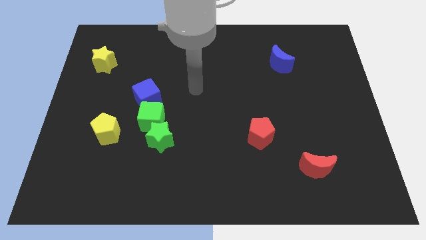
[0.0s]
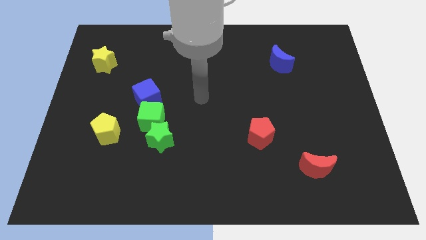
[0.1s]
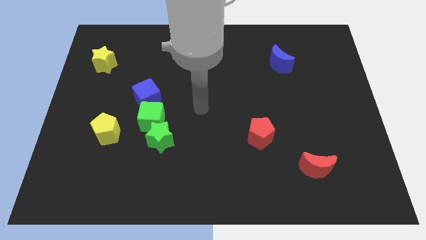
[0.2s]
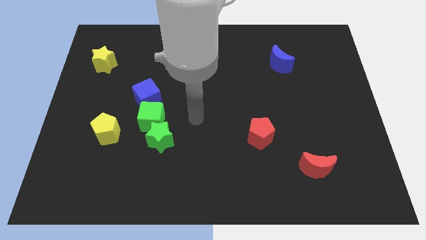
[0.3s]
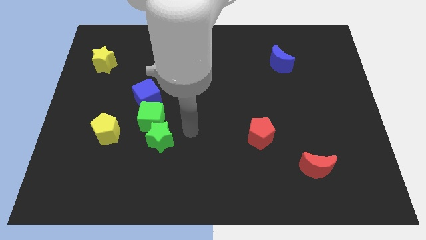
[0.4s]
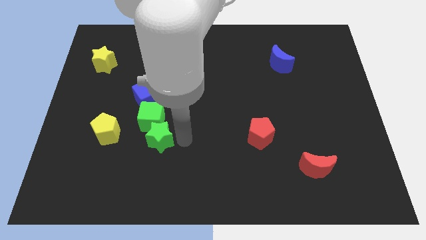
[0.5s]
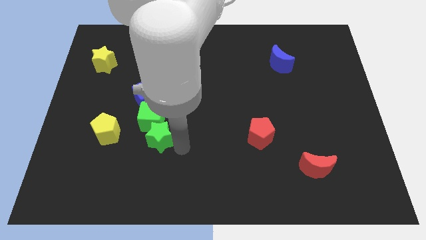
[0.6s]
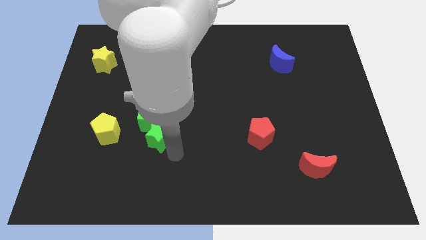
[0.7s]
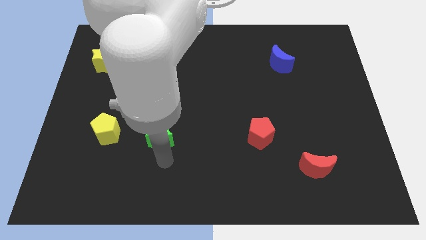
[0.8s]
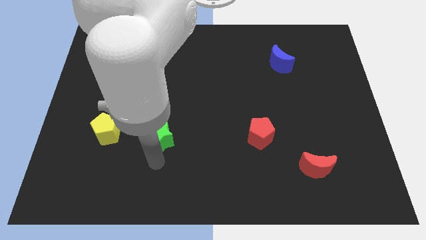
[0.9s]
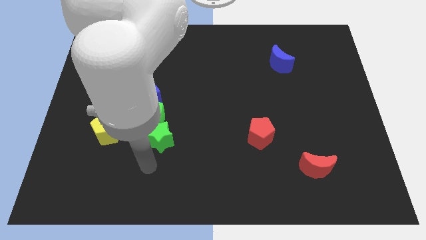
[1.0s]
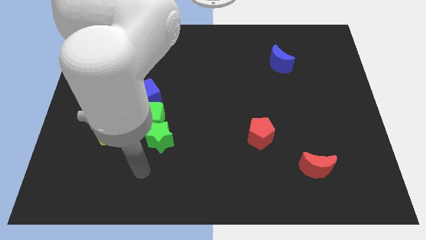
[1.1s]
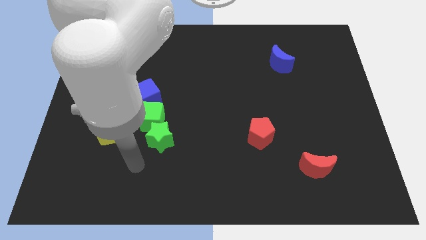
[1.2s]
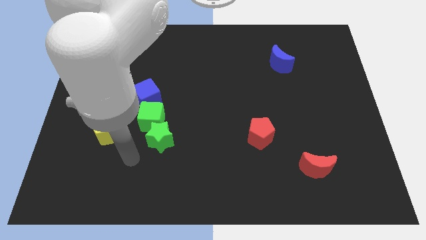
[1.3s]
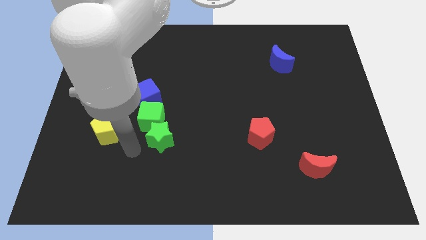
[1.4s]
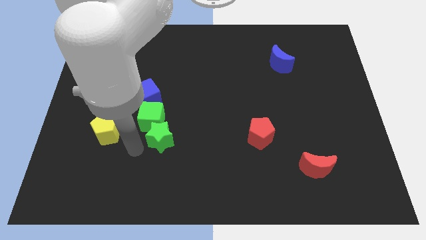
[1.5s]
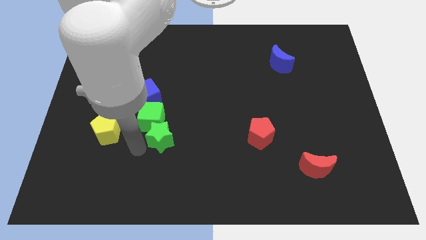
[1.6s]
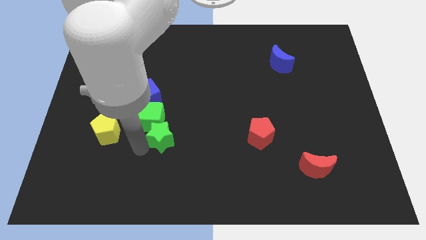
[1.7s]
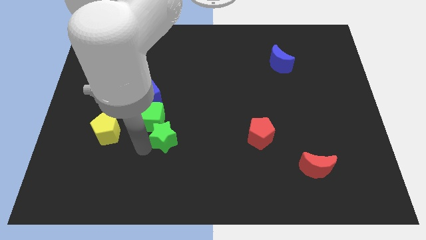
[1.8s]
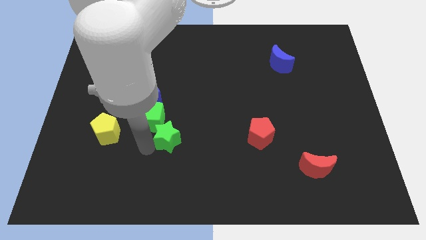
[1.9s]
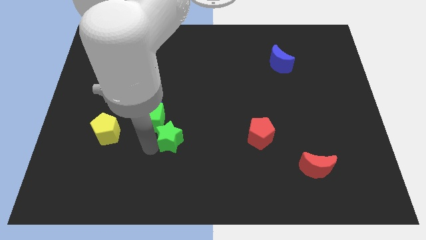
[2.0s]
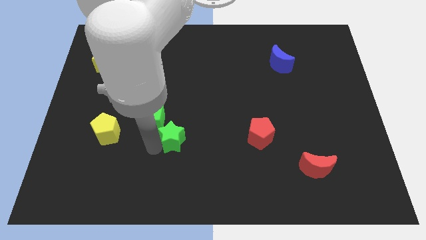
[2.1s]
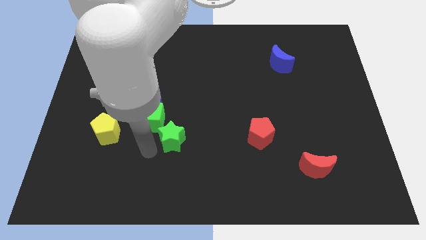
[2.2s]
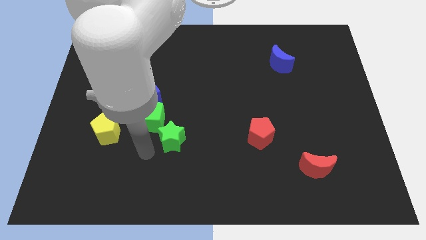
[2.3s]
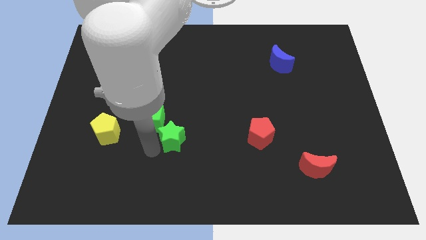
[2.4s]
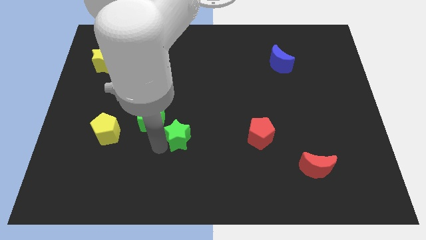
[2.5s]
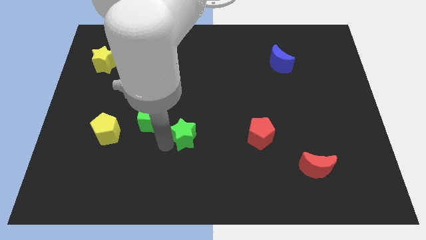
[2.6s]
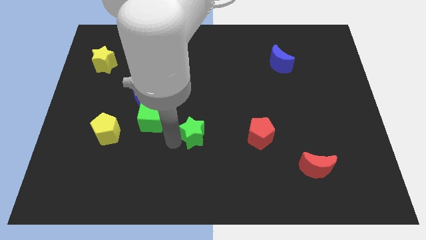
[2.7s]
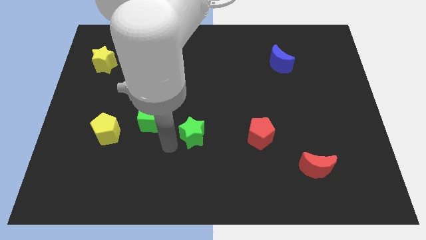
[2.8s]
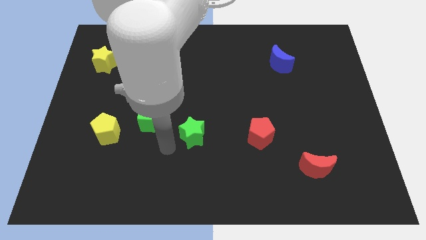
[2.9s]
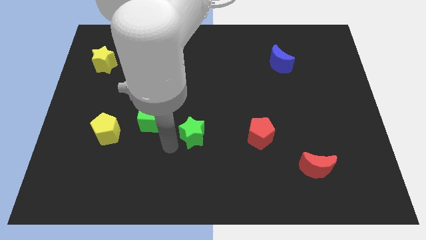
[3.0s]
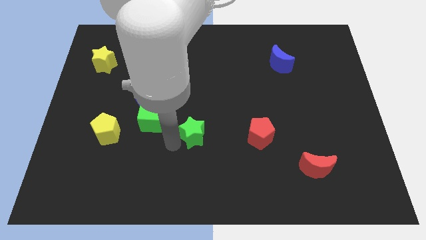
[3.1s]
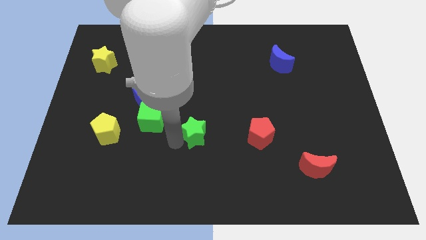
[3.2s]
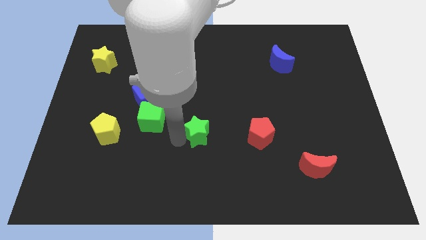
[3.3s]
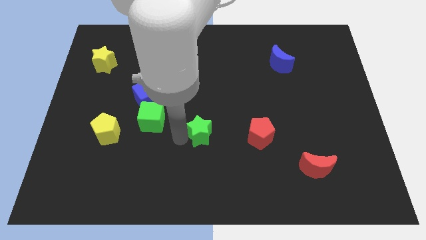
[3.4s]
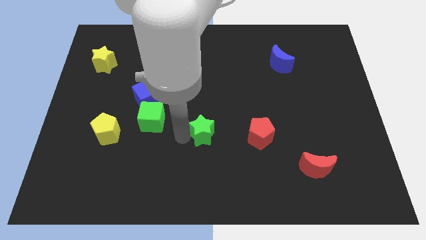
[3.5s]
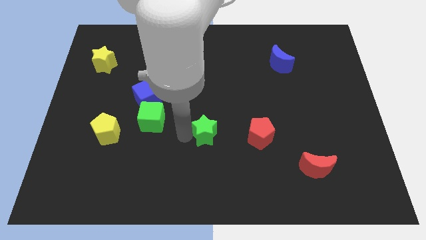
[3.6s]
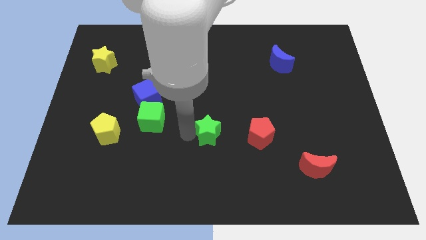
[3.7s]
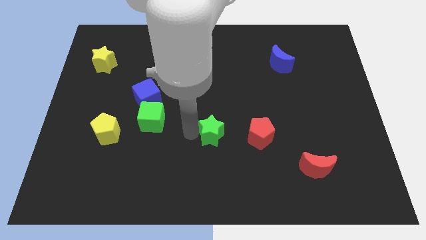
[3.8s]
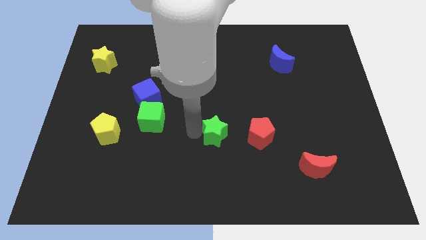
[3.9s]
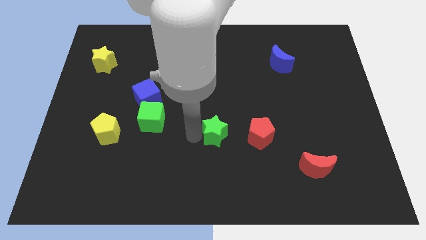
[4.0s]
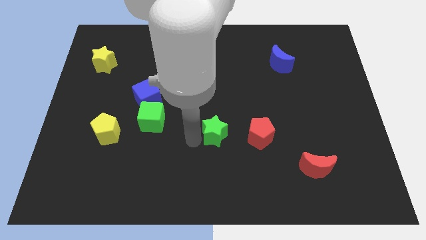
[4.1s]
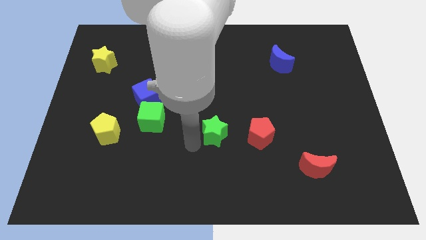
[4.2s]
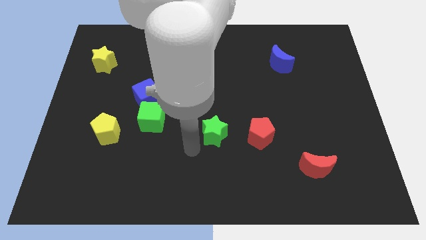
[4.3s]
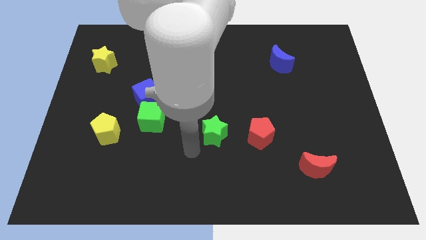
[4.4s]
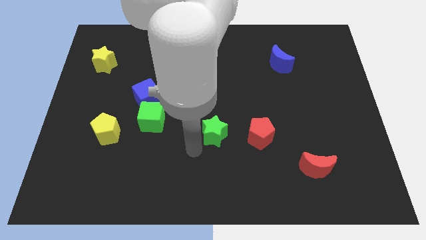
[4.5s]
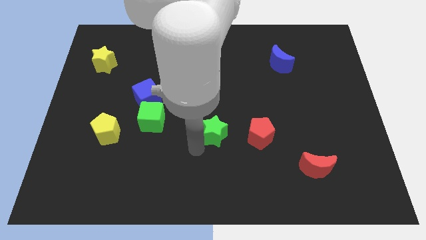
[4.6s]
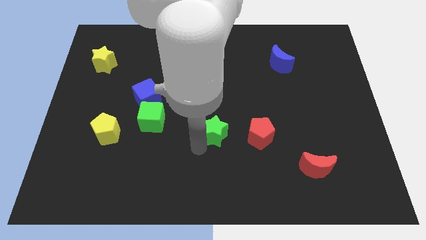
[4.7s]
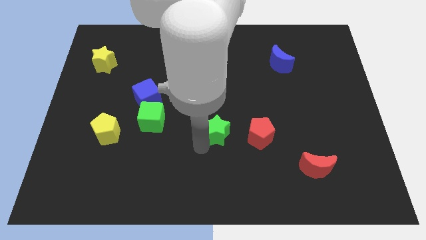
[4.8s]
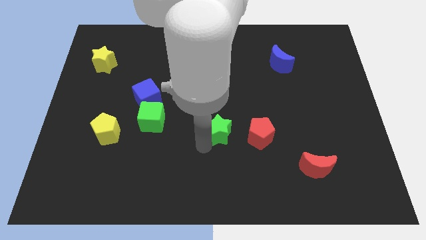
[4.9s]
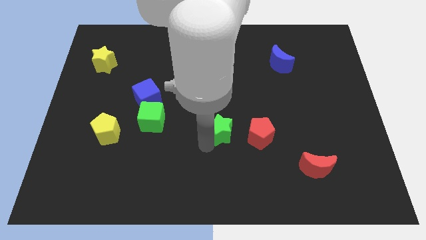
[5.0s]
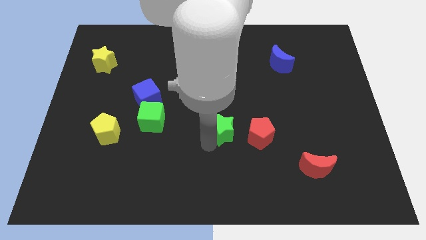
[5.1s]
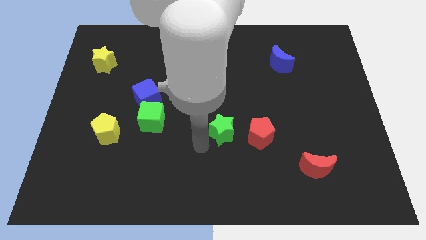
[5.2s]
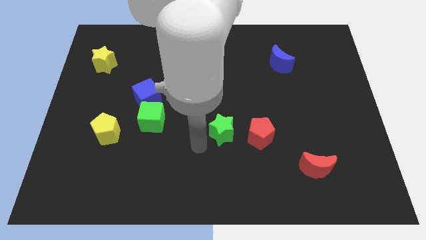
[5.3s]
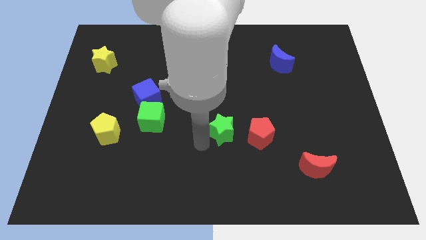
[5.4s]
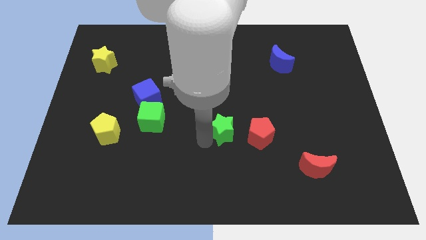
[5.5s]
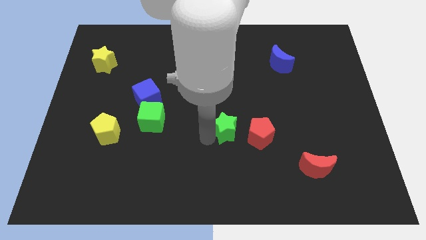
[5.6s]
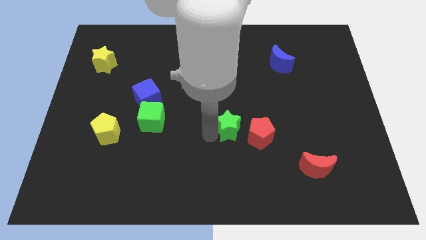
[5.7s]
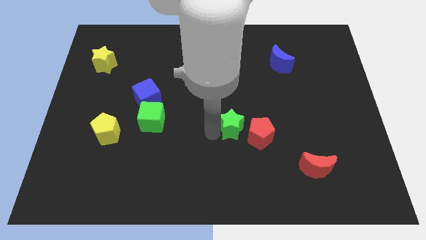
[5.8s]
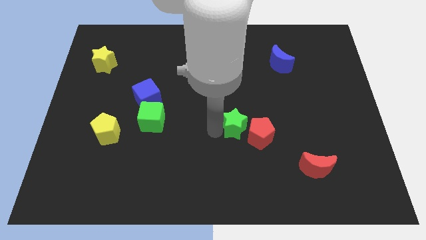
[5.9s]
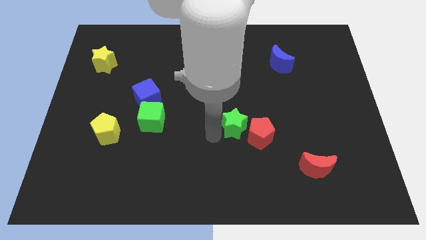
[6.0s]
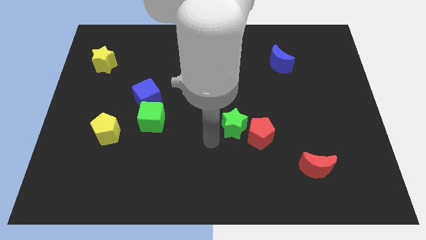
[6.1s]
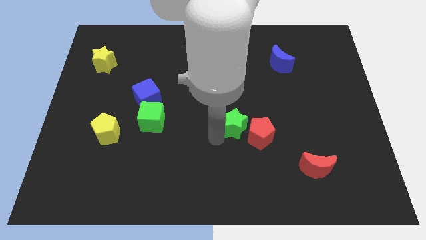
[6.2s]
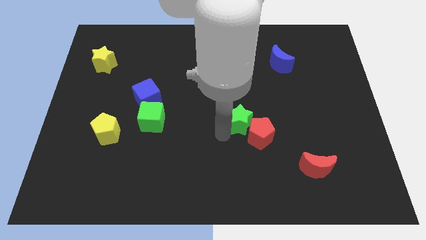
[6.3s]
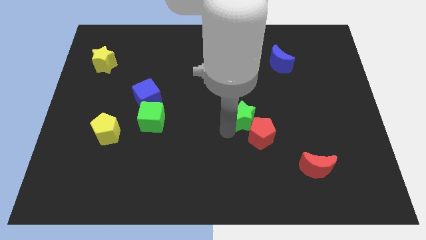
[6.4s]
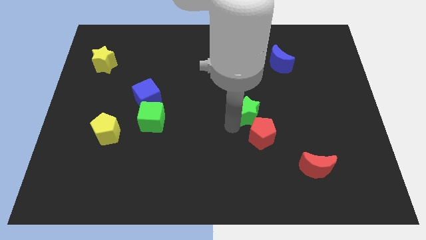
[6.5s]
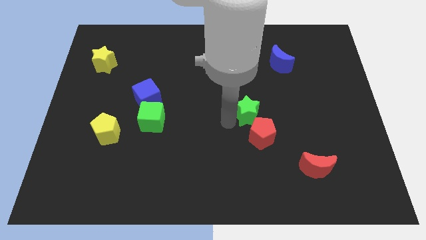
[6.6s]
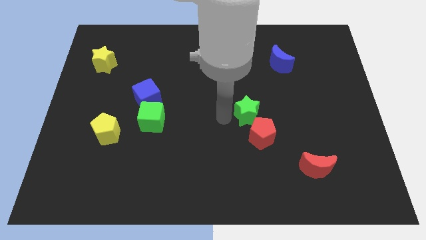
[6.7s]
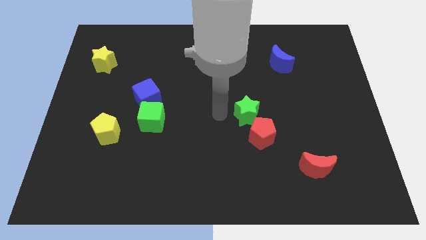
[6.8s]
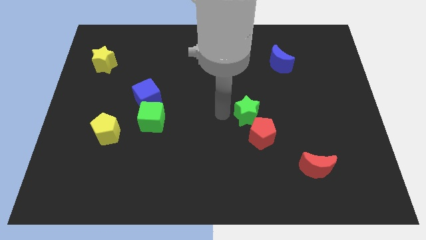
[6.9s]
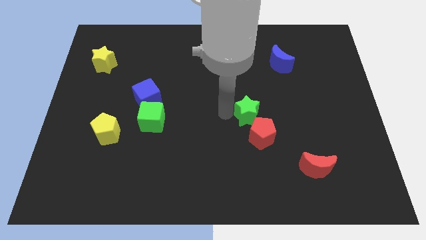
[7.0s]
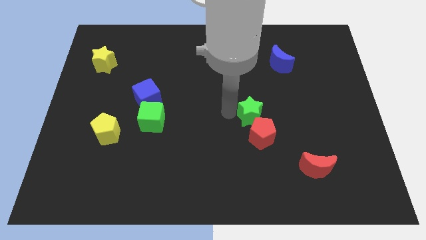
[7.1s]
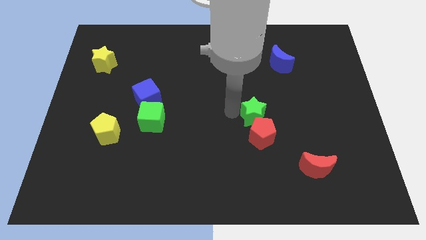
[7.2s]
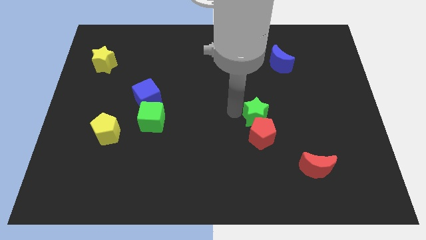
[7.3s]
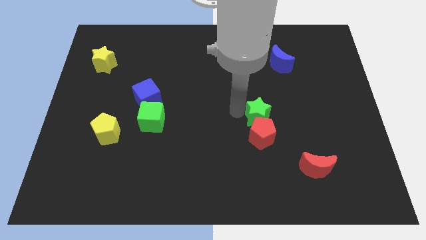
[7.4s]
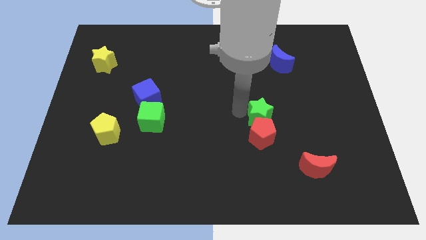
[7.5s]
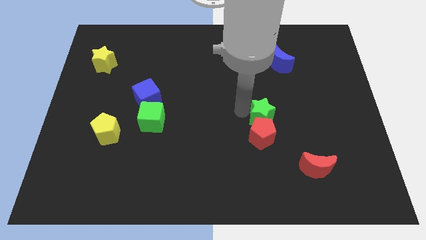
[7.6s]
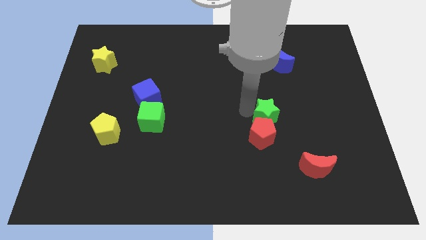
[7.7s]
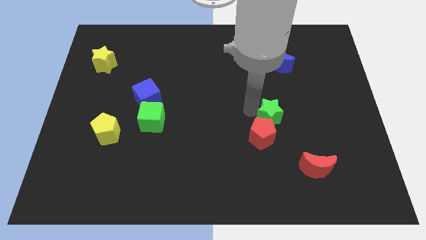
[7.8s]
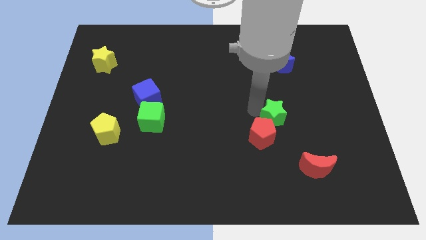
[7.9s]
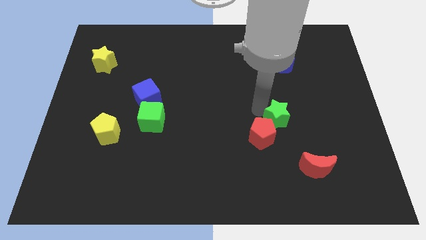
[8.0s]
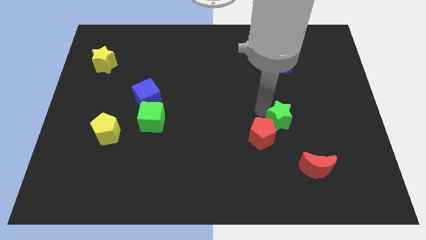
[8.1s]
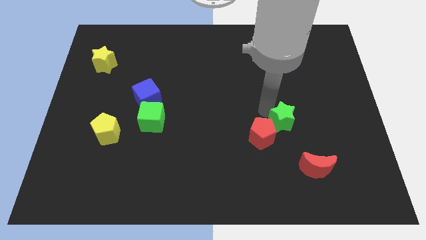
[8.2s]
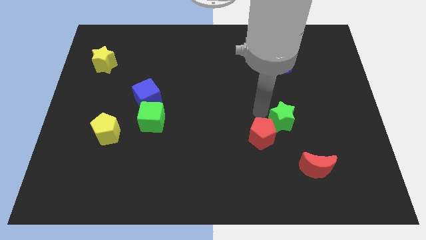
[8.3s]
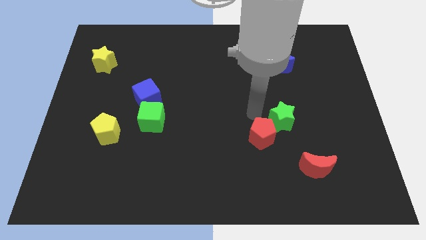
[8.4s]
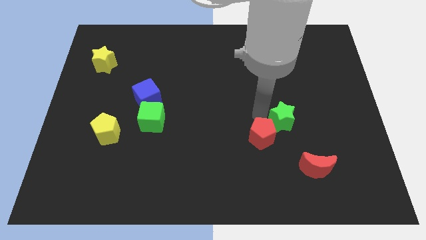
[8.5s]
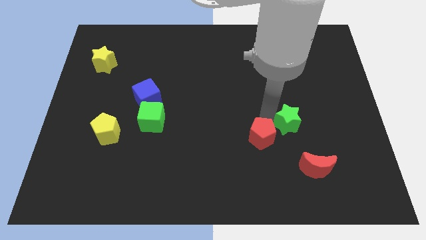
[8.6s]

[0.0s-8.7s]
push the green star to the top side of the red moon
